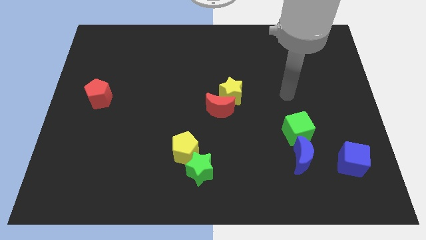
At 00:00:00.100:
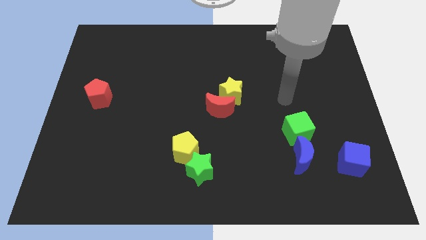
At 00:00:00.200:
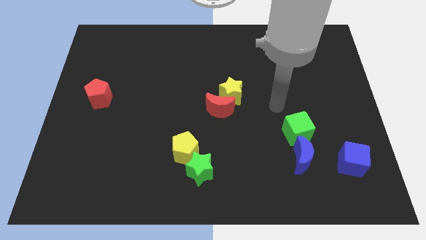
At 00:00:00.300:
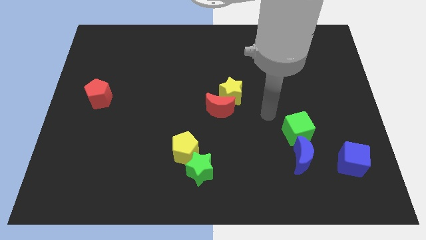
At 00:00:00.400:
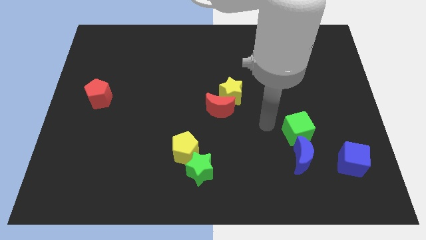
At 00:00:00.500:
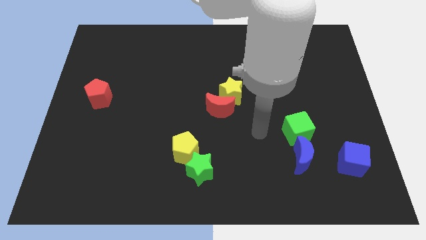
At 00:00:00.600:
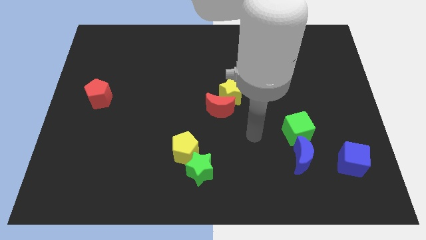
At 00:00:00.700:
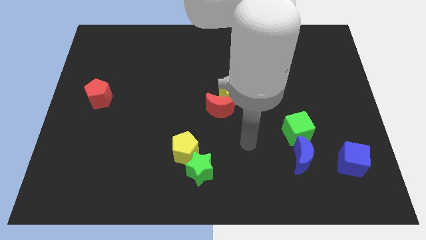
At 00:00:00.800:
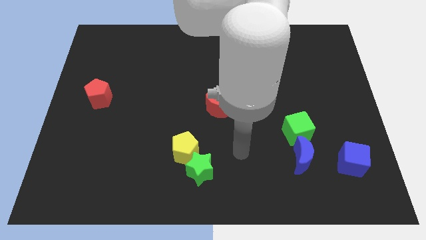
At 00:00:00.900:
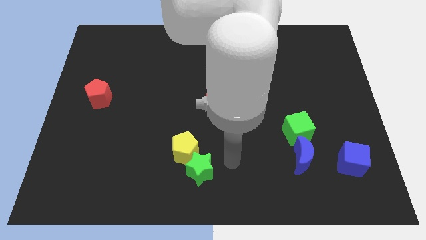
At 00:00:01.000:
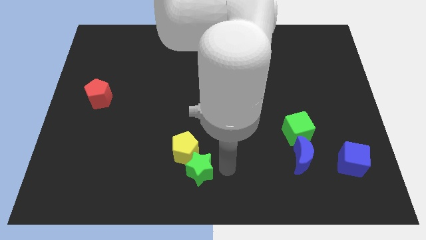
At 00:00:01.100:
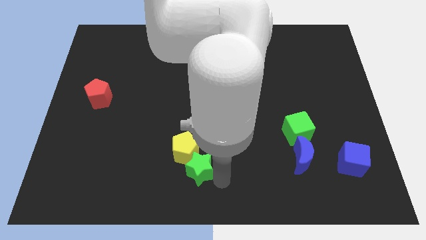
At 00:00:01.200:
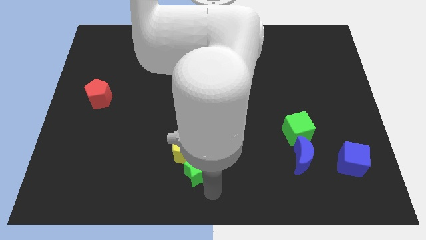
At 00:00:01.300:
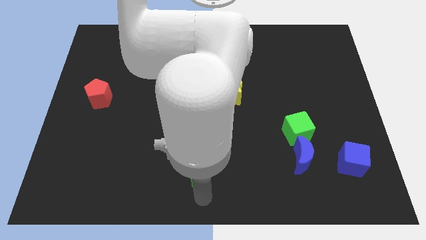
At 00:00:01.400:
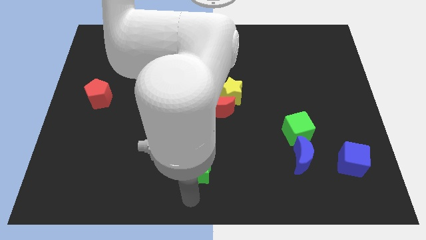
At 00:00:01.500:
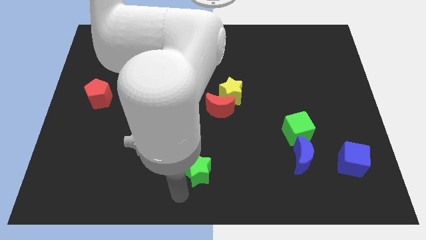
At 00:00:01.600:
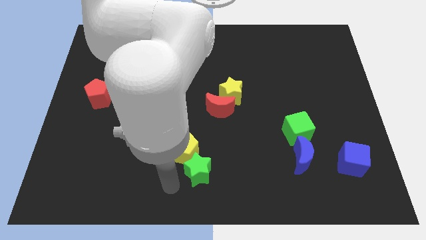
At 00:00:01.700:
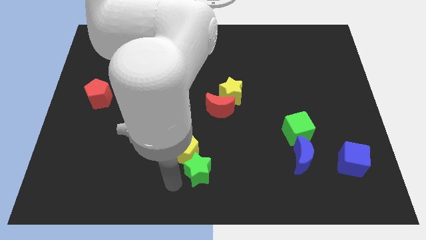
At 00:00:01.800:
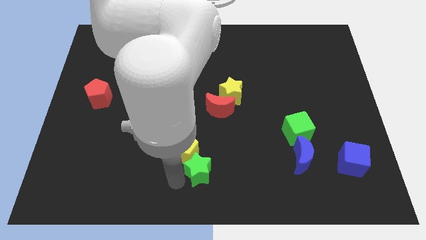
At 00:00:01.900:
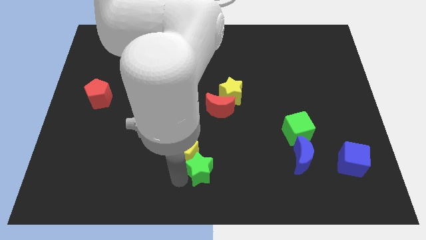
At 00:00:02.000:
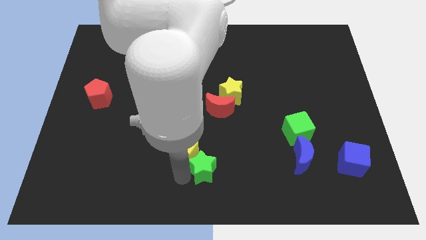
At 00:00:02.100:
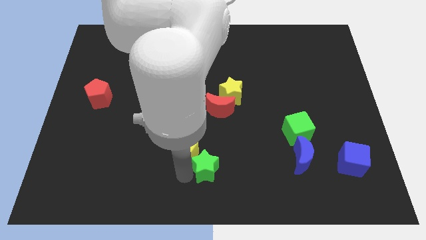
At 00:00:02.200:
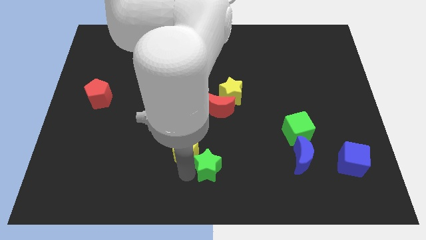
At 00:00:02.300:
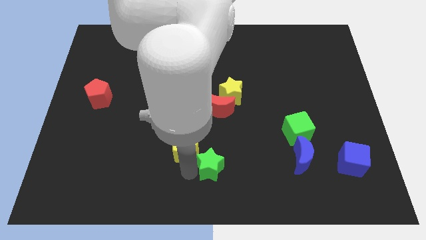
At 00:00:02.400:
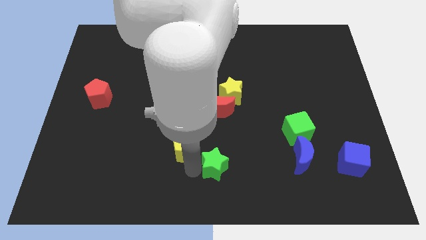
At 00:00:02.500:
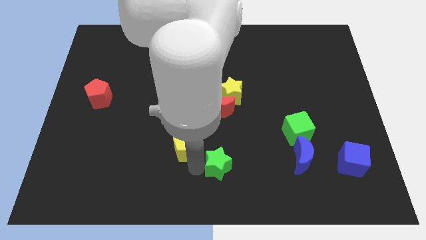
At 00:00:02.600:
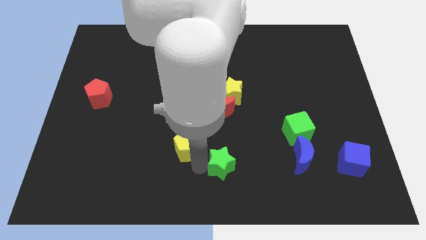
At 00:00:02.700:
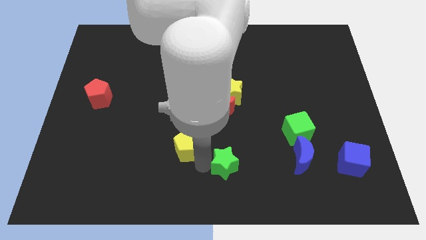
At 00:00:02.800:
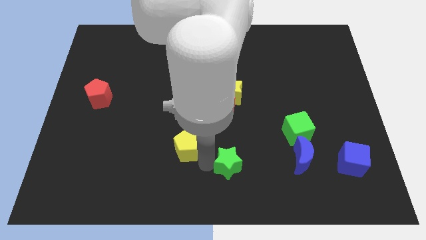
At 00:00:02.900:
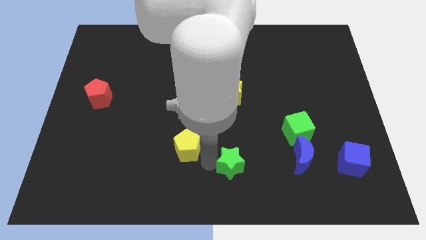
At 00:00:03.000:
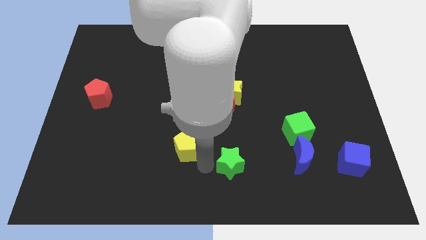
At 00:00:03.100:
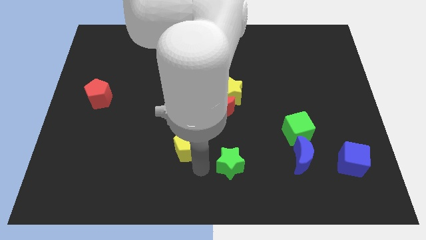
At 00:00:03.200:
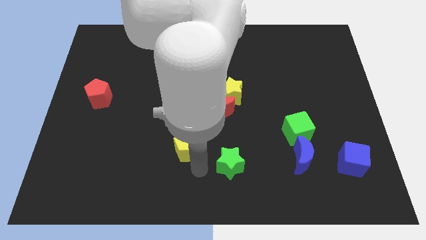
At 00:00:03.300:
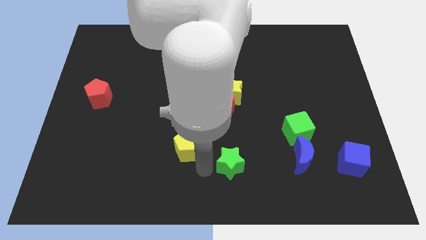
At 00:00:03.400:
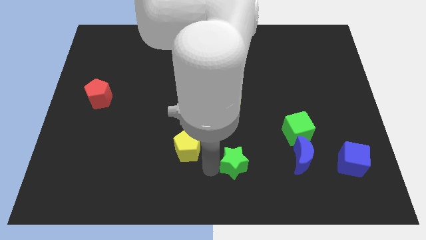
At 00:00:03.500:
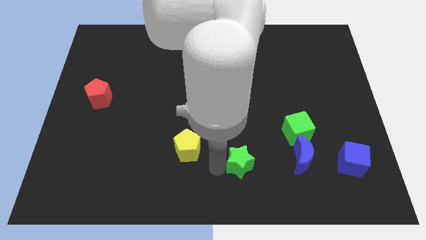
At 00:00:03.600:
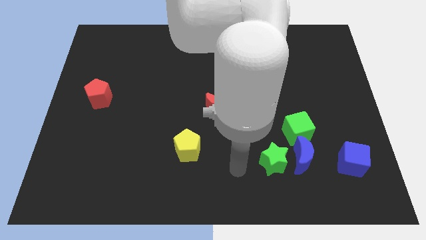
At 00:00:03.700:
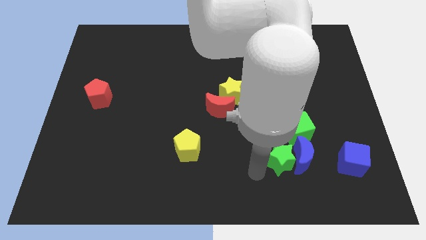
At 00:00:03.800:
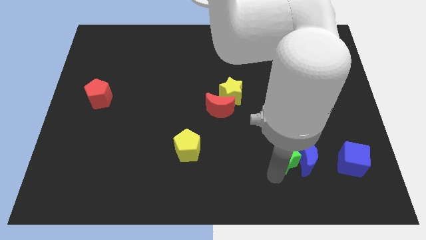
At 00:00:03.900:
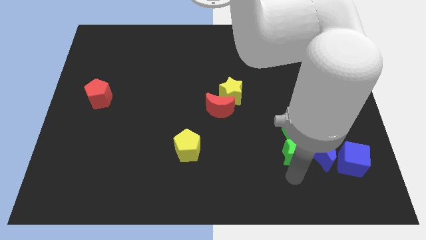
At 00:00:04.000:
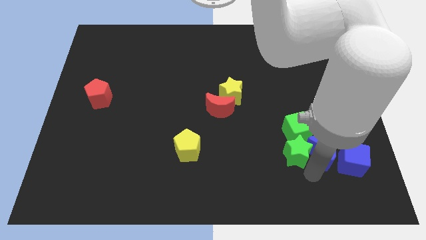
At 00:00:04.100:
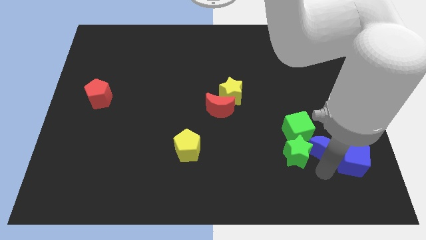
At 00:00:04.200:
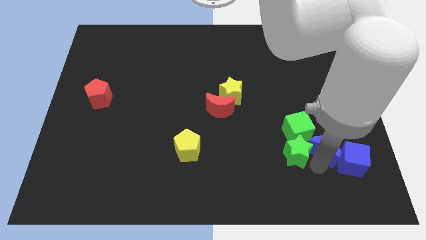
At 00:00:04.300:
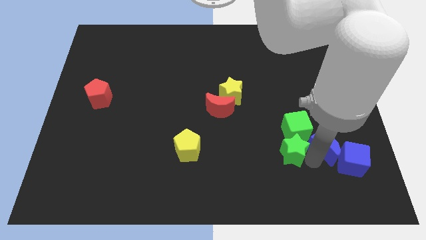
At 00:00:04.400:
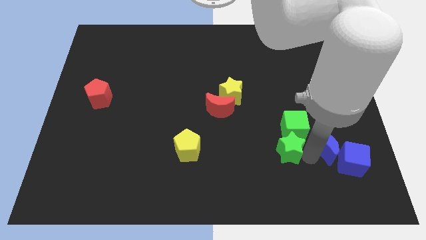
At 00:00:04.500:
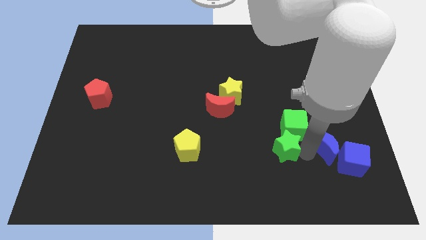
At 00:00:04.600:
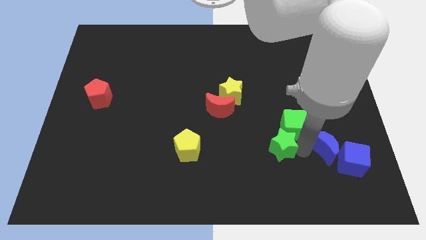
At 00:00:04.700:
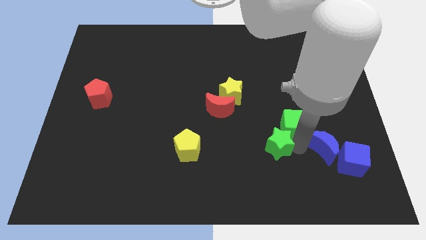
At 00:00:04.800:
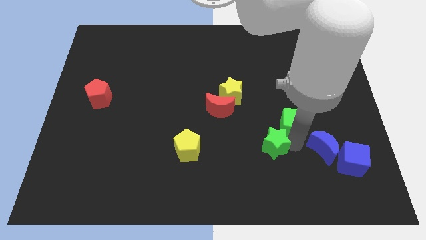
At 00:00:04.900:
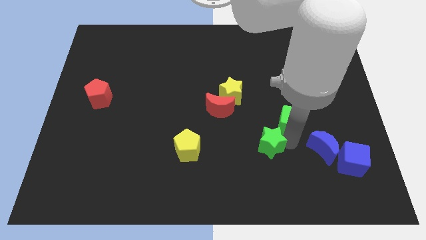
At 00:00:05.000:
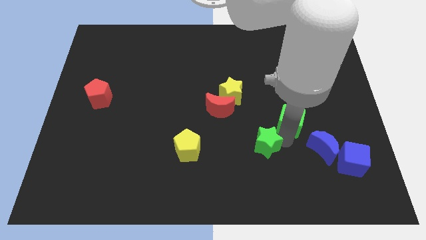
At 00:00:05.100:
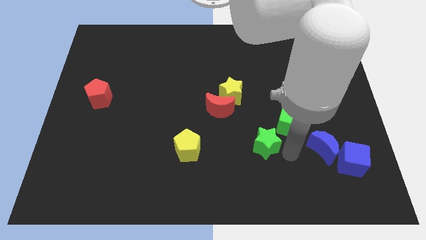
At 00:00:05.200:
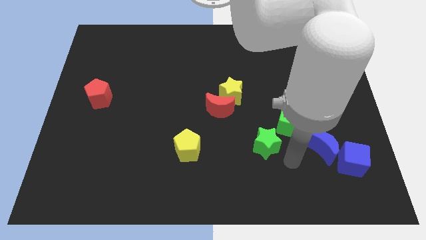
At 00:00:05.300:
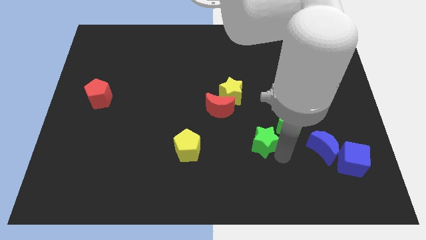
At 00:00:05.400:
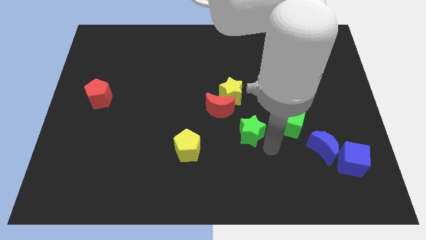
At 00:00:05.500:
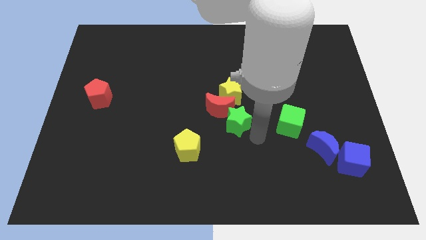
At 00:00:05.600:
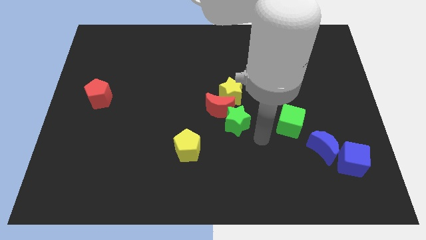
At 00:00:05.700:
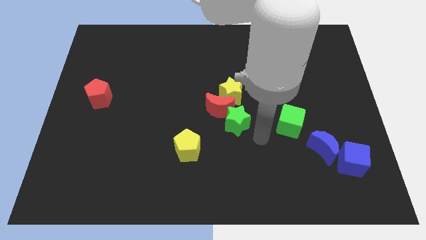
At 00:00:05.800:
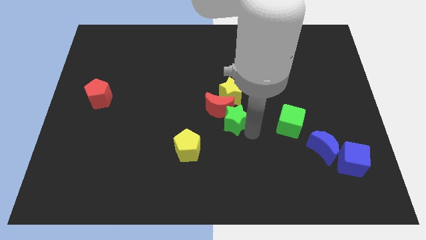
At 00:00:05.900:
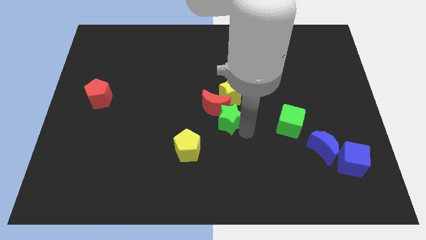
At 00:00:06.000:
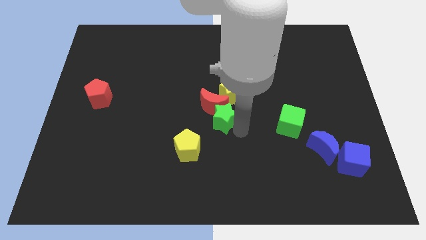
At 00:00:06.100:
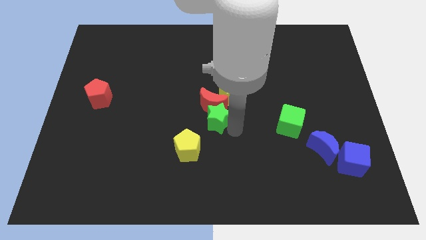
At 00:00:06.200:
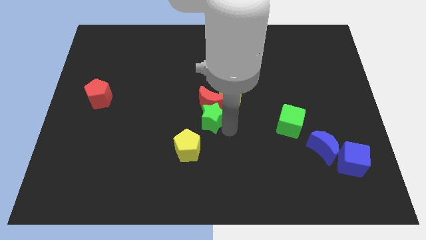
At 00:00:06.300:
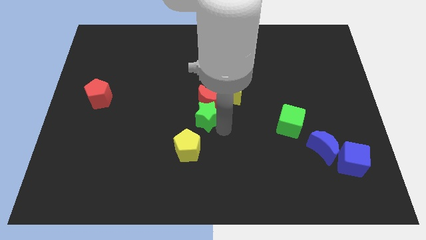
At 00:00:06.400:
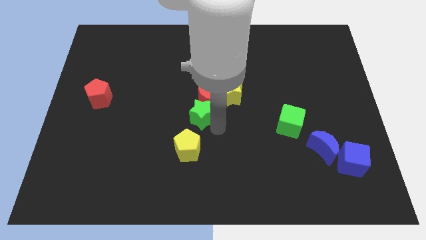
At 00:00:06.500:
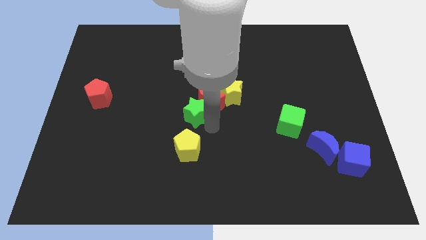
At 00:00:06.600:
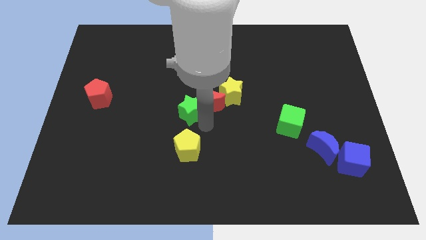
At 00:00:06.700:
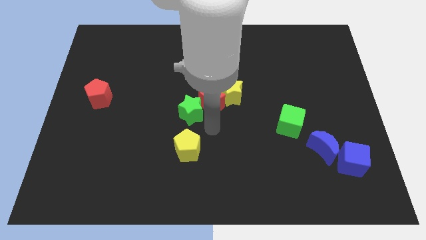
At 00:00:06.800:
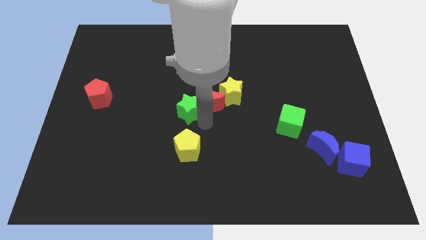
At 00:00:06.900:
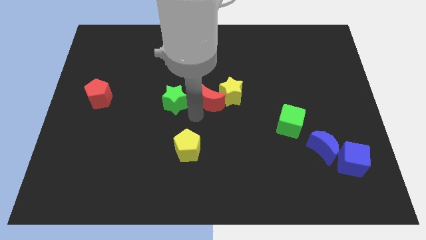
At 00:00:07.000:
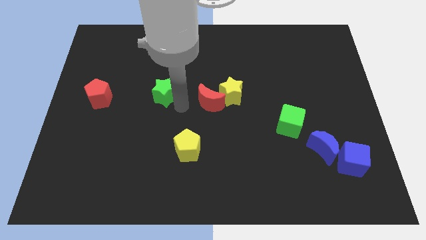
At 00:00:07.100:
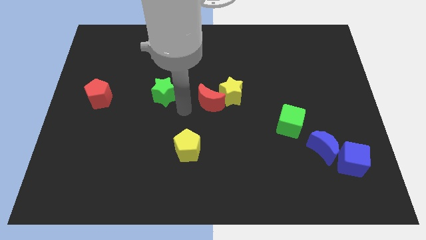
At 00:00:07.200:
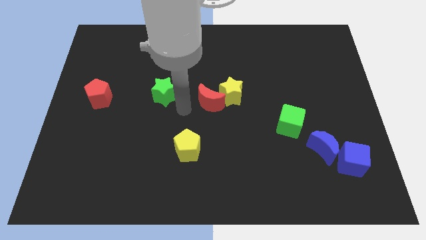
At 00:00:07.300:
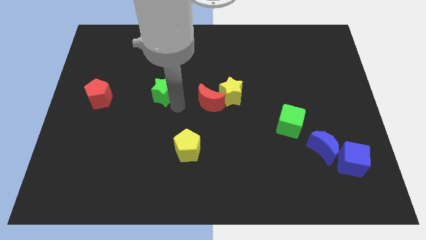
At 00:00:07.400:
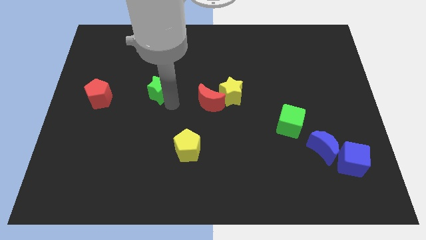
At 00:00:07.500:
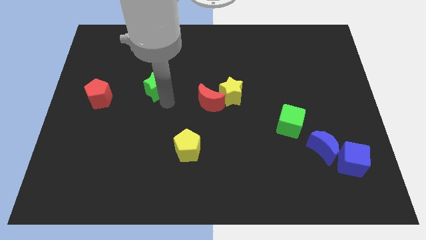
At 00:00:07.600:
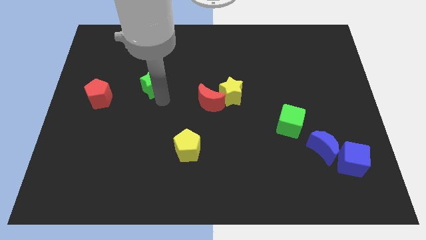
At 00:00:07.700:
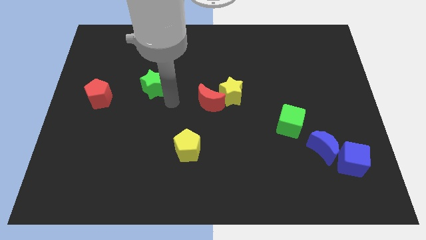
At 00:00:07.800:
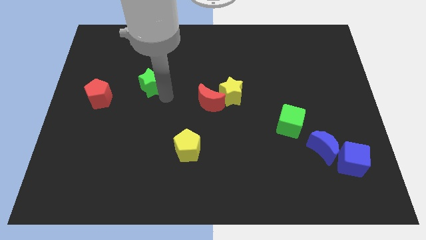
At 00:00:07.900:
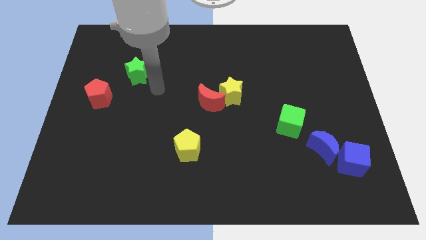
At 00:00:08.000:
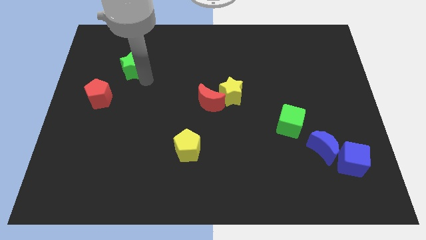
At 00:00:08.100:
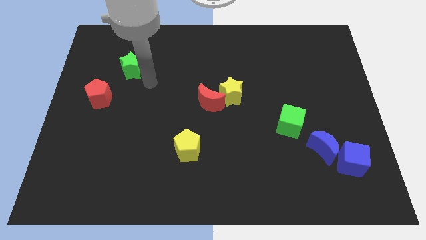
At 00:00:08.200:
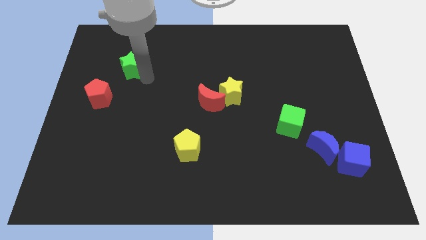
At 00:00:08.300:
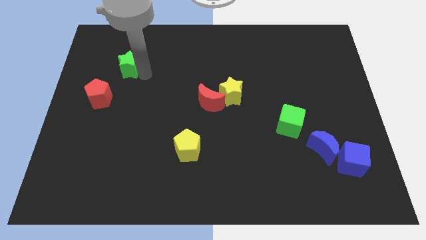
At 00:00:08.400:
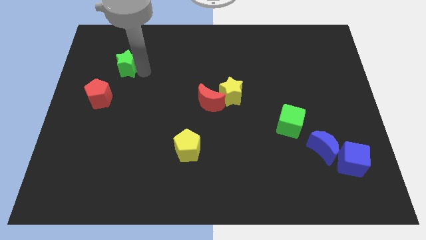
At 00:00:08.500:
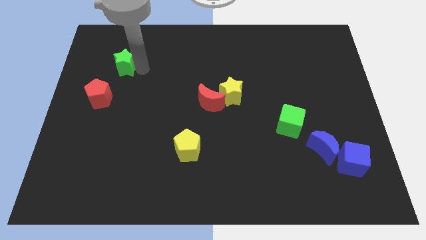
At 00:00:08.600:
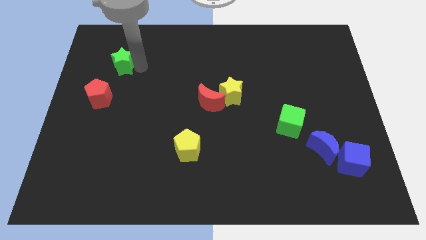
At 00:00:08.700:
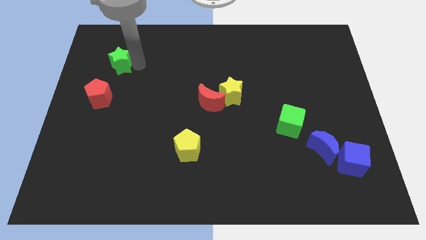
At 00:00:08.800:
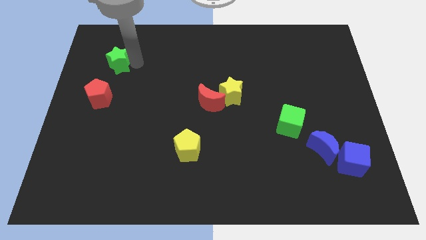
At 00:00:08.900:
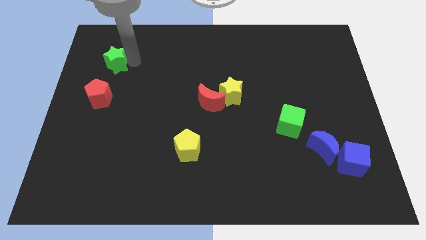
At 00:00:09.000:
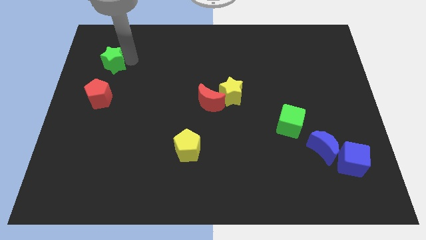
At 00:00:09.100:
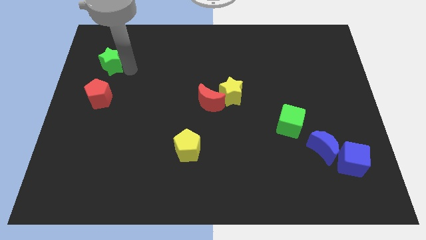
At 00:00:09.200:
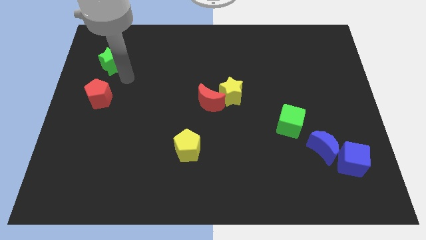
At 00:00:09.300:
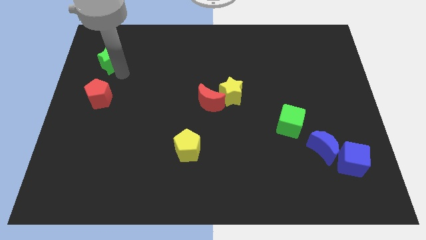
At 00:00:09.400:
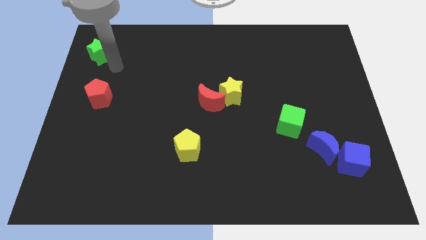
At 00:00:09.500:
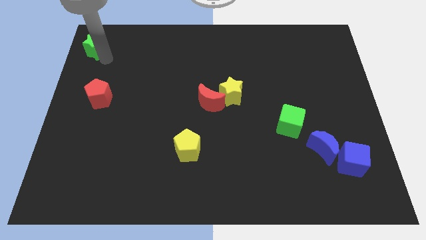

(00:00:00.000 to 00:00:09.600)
move the green star to the upper left corner
